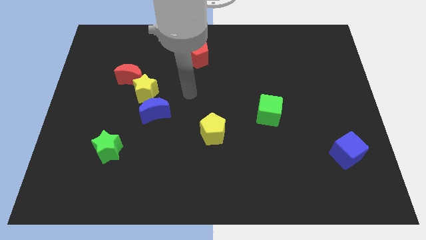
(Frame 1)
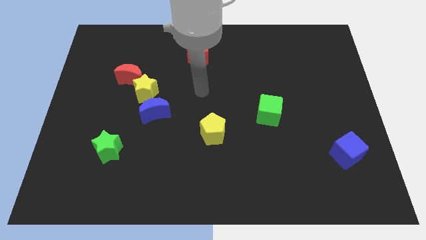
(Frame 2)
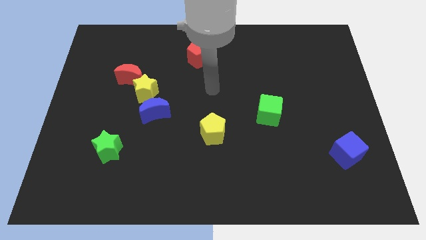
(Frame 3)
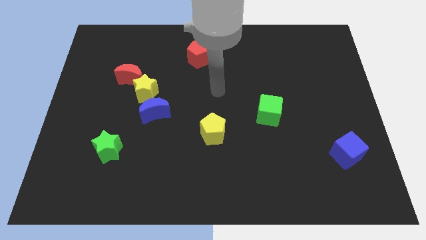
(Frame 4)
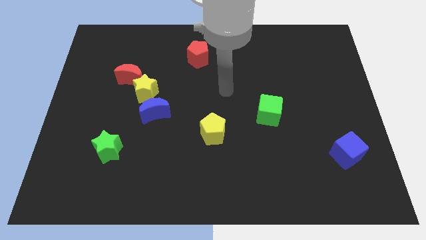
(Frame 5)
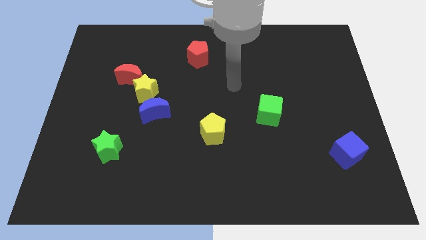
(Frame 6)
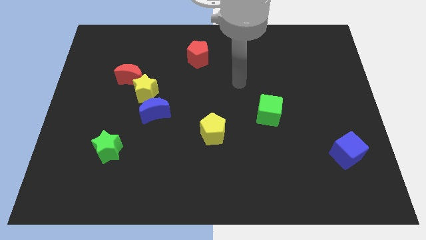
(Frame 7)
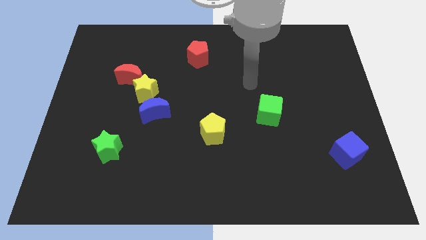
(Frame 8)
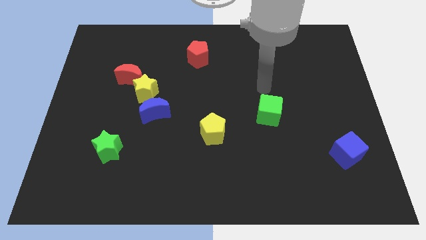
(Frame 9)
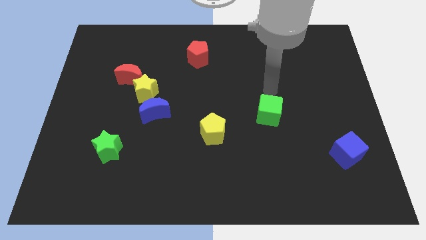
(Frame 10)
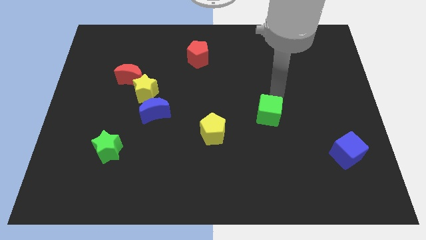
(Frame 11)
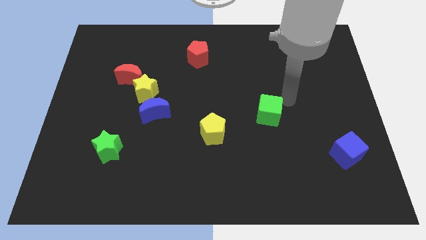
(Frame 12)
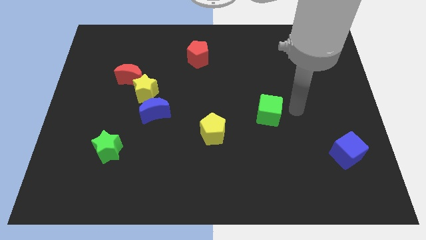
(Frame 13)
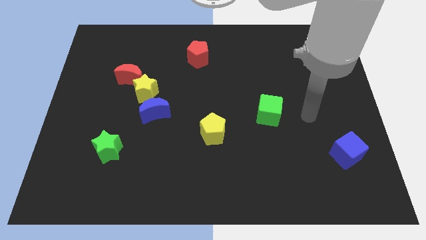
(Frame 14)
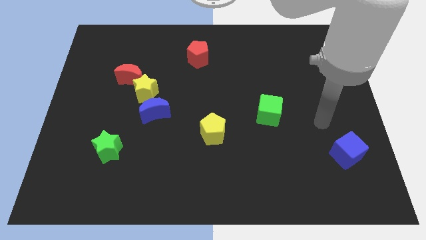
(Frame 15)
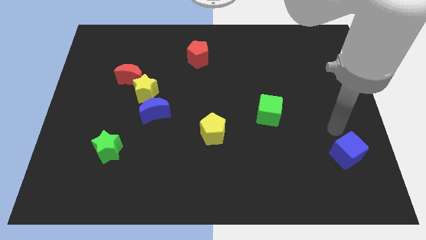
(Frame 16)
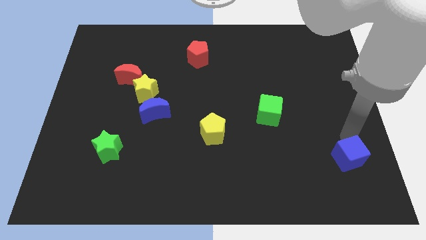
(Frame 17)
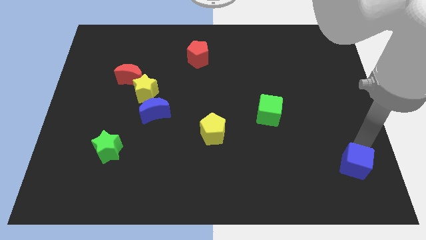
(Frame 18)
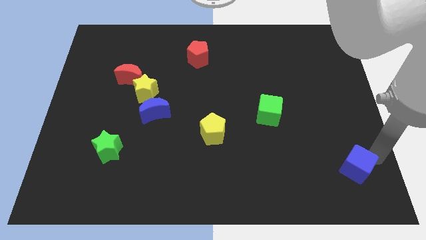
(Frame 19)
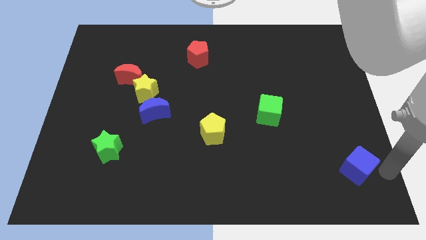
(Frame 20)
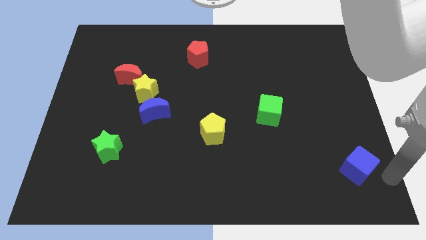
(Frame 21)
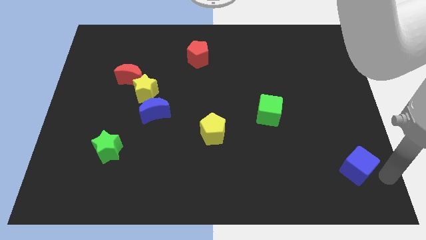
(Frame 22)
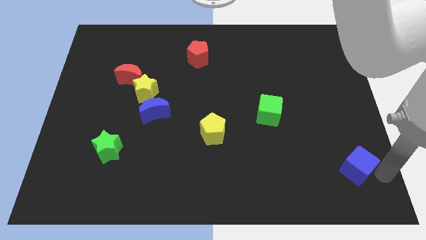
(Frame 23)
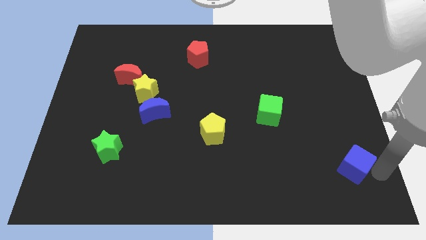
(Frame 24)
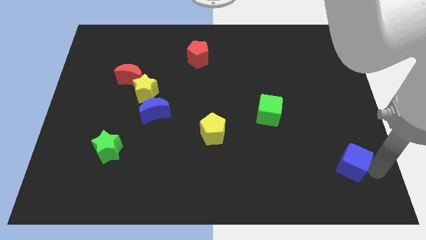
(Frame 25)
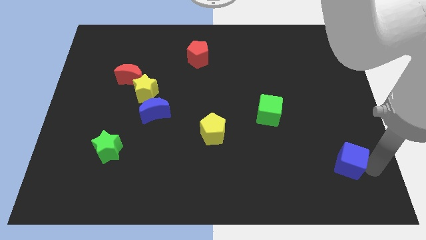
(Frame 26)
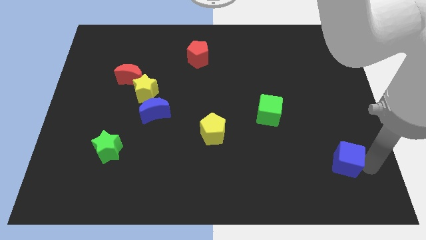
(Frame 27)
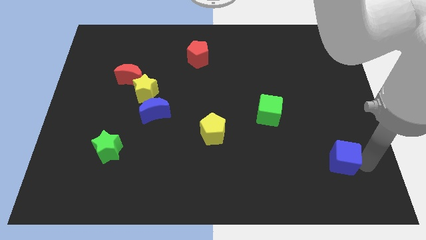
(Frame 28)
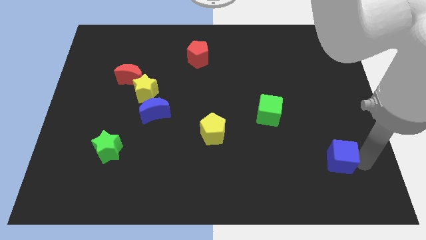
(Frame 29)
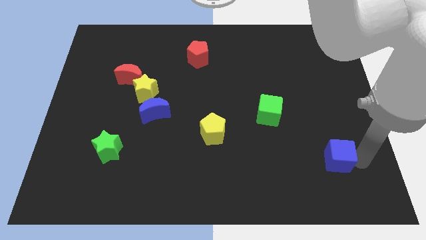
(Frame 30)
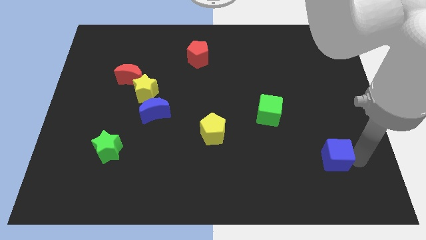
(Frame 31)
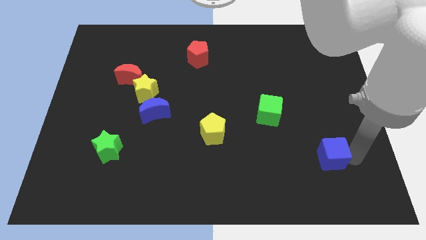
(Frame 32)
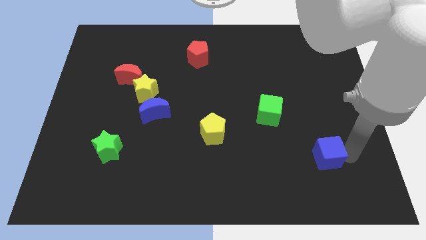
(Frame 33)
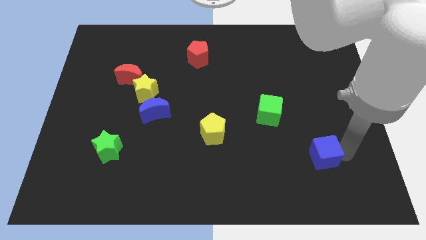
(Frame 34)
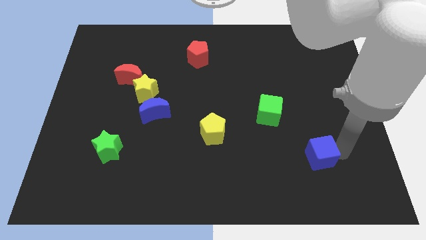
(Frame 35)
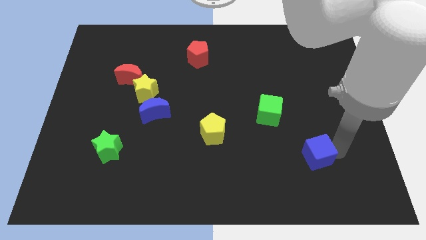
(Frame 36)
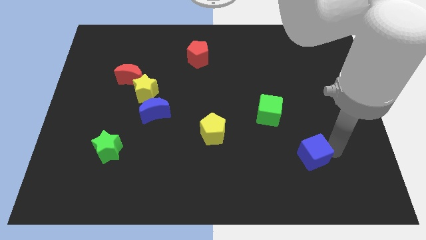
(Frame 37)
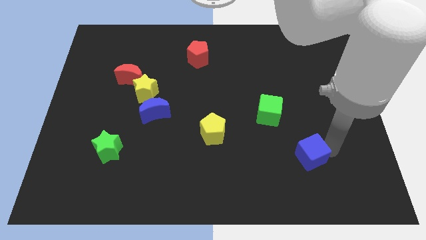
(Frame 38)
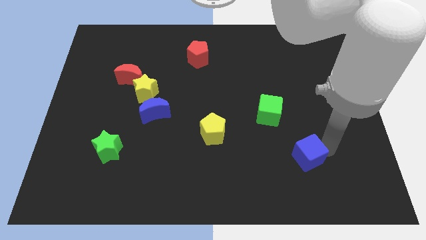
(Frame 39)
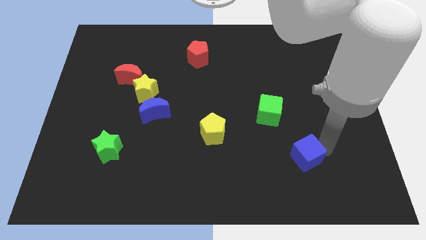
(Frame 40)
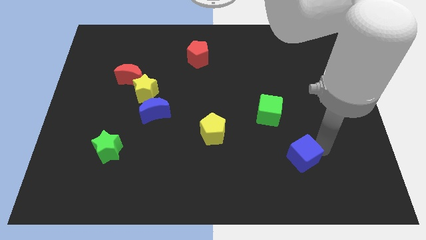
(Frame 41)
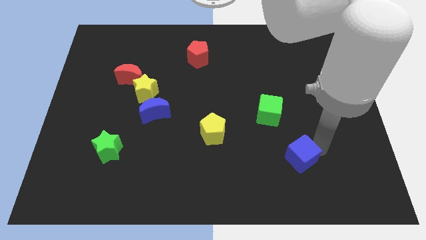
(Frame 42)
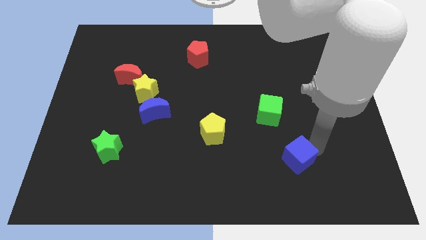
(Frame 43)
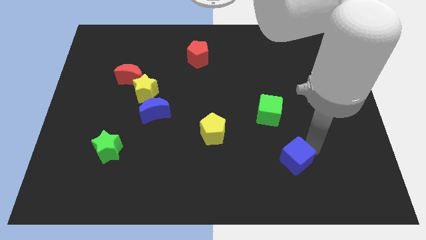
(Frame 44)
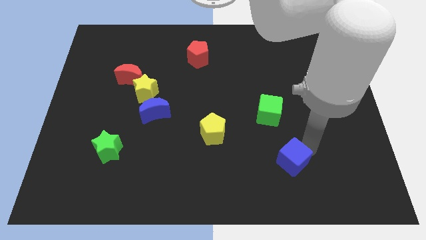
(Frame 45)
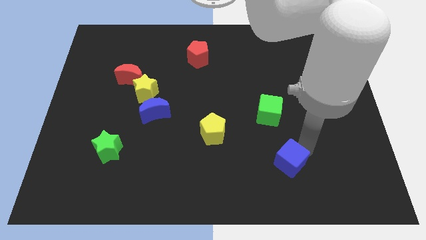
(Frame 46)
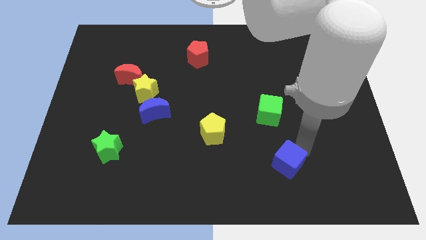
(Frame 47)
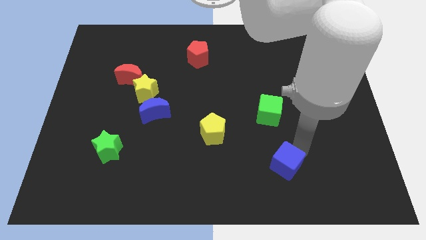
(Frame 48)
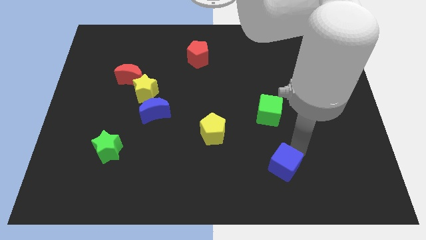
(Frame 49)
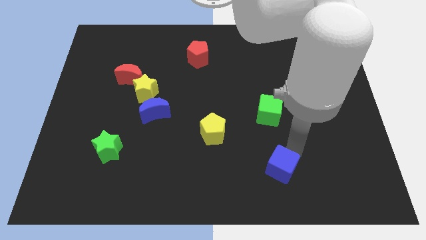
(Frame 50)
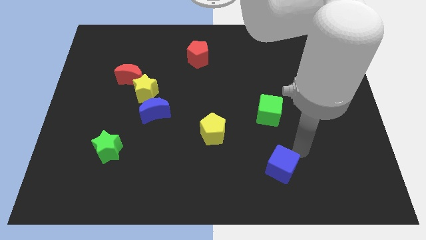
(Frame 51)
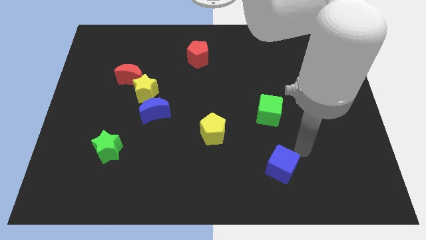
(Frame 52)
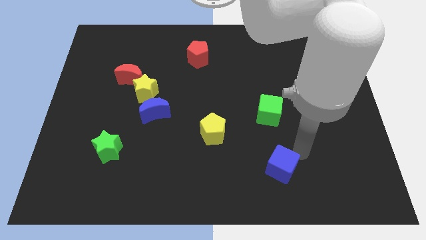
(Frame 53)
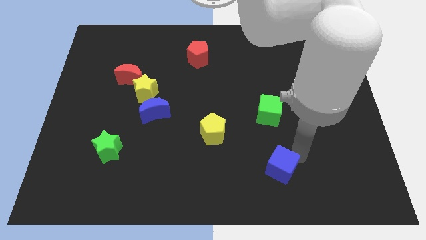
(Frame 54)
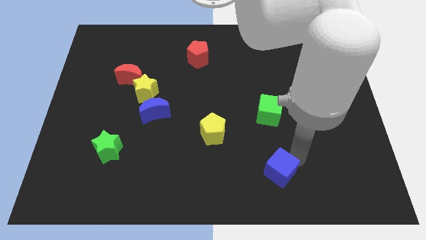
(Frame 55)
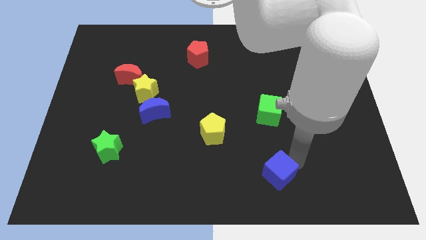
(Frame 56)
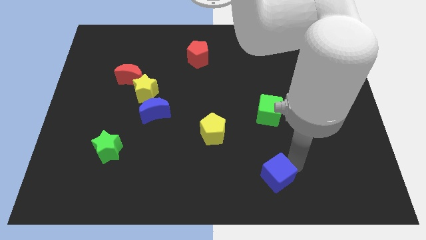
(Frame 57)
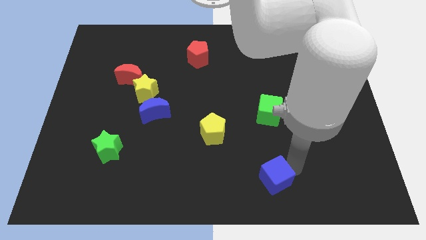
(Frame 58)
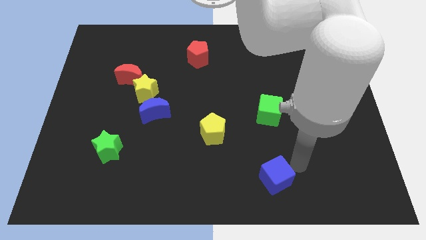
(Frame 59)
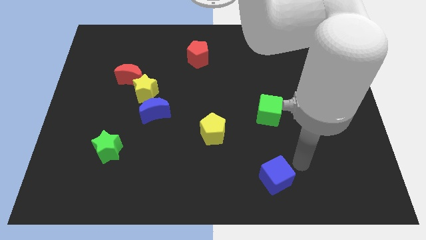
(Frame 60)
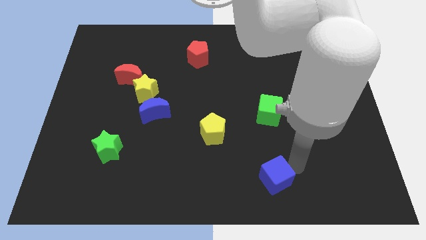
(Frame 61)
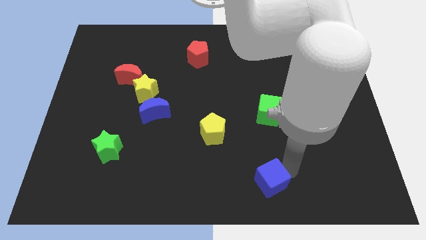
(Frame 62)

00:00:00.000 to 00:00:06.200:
push the blue cube to the bottom side

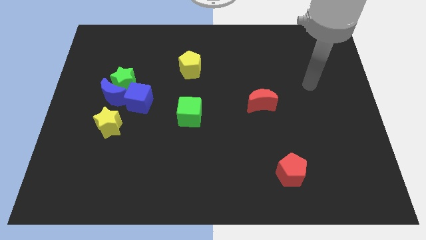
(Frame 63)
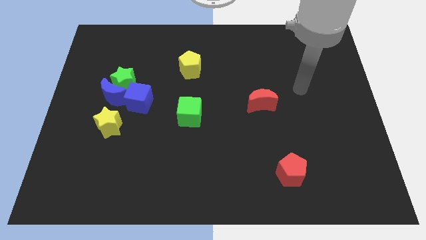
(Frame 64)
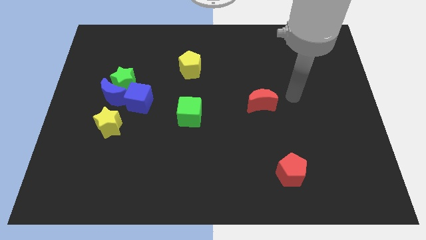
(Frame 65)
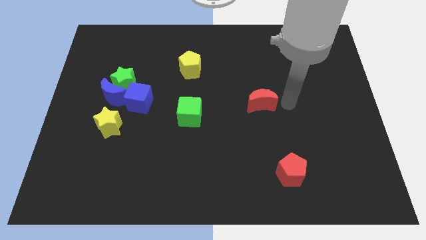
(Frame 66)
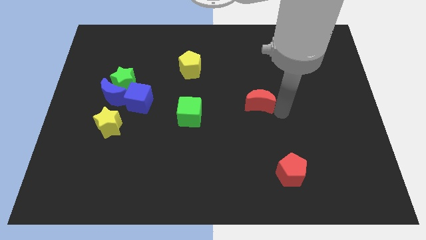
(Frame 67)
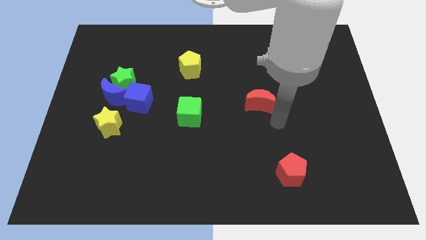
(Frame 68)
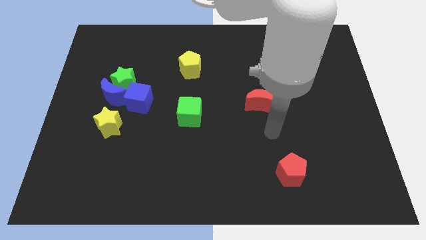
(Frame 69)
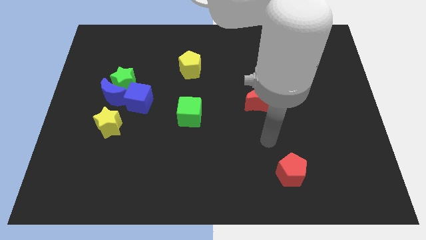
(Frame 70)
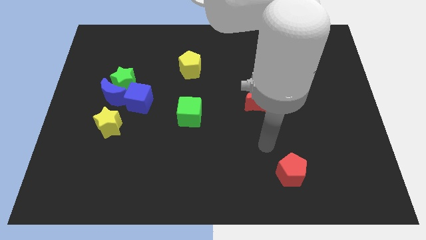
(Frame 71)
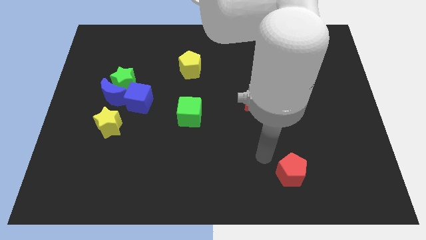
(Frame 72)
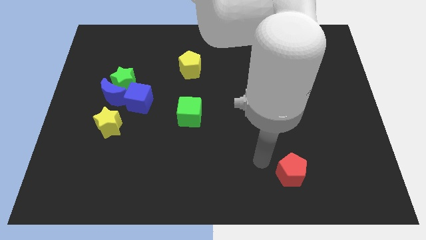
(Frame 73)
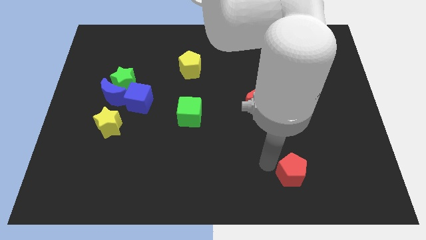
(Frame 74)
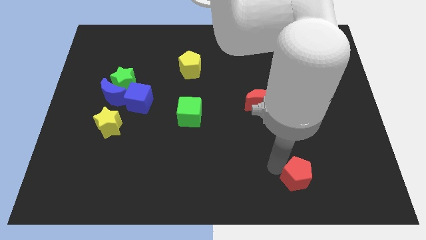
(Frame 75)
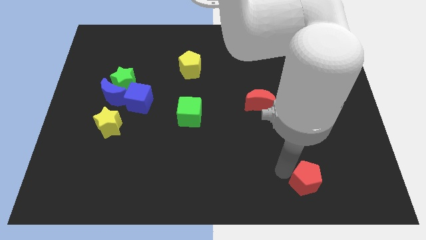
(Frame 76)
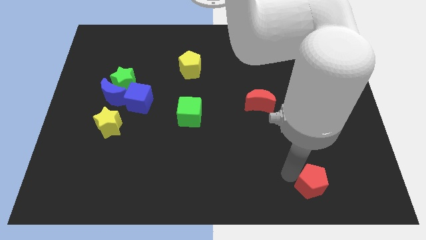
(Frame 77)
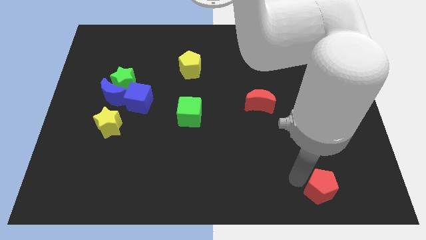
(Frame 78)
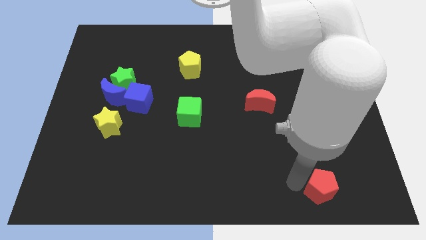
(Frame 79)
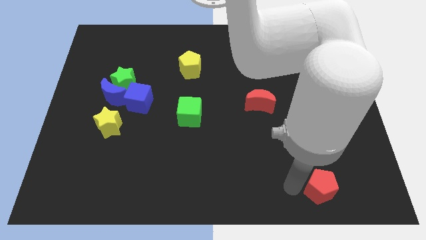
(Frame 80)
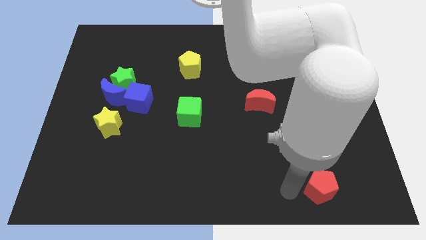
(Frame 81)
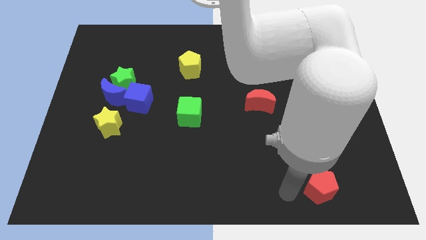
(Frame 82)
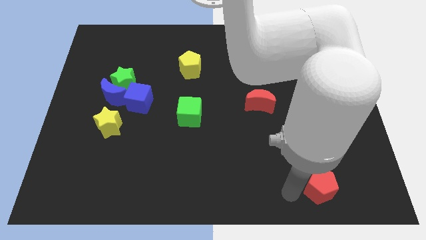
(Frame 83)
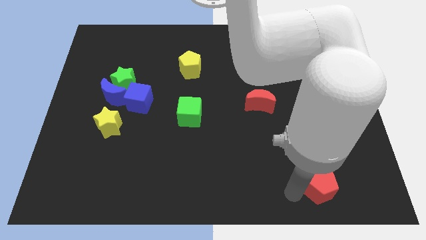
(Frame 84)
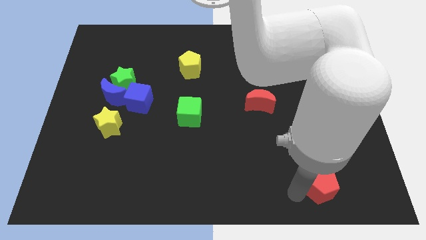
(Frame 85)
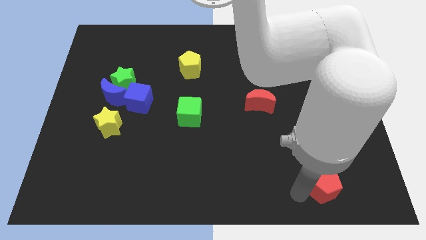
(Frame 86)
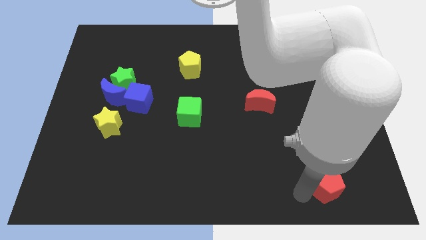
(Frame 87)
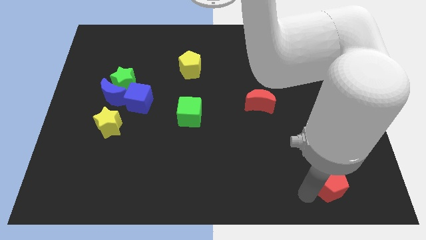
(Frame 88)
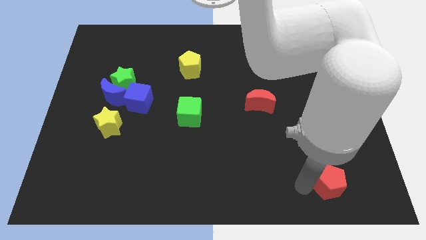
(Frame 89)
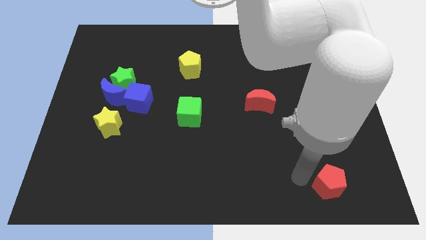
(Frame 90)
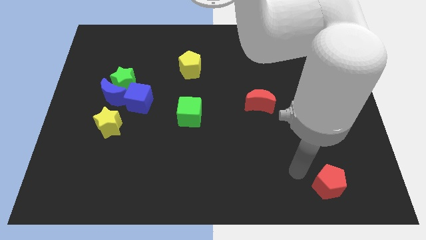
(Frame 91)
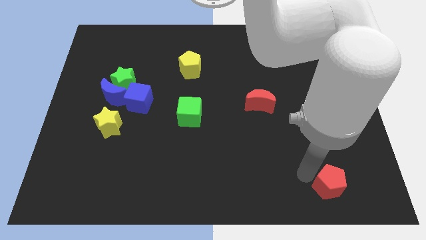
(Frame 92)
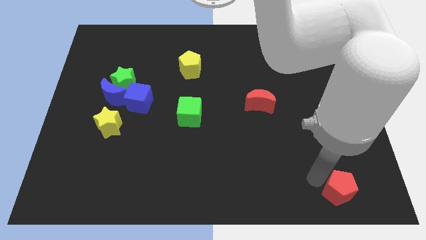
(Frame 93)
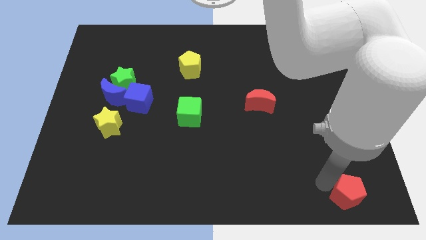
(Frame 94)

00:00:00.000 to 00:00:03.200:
move the red pentagon to the bottom right of the board
